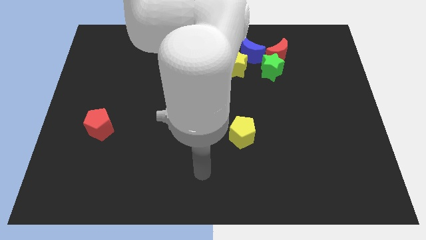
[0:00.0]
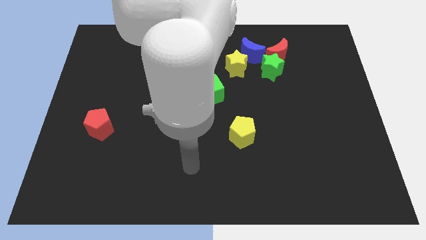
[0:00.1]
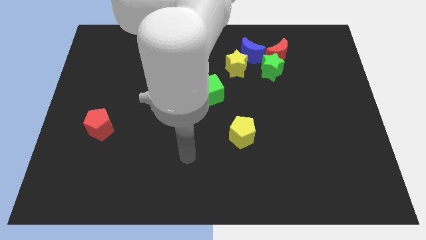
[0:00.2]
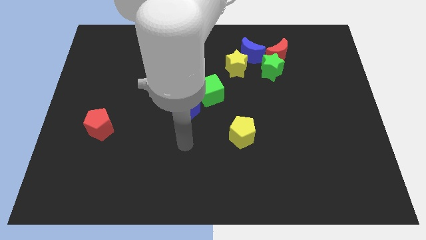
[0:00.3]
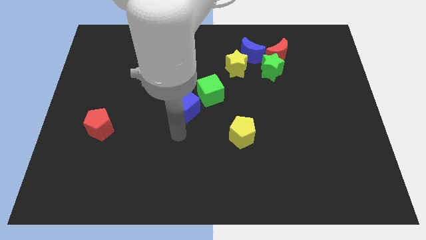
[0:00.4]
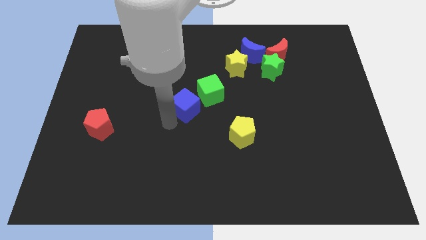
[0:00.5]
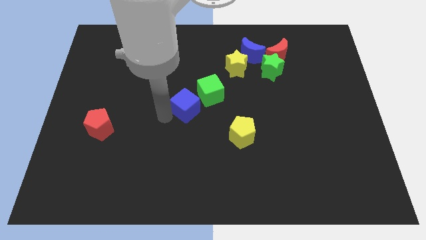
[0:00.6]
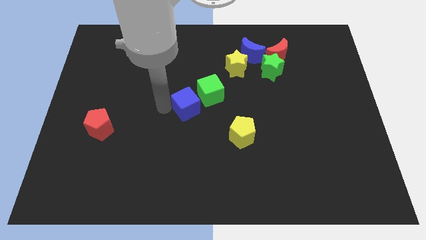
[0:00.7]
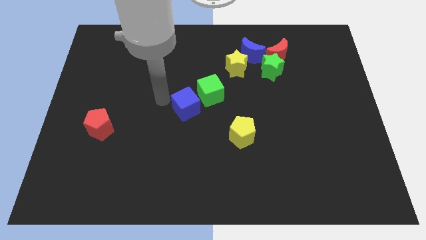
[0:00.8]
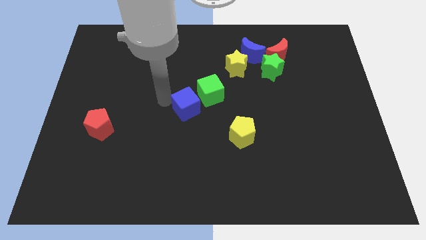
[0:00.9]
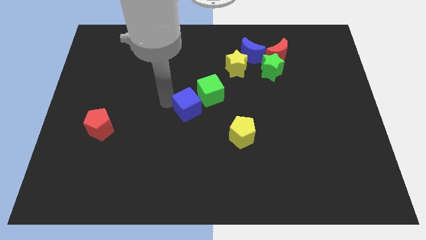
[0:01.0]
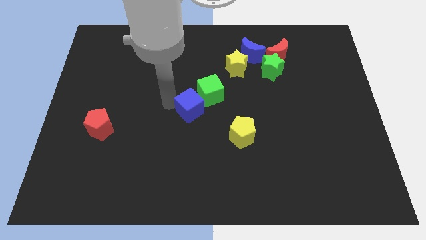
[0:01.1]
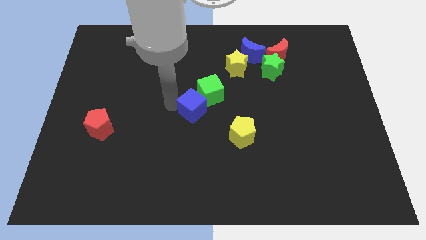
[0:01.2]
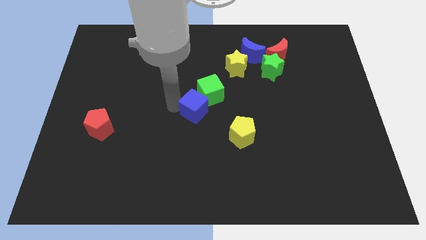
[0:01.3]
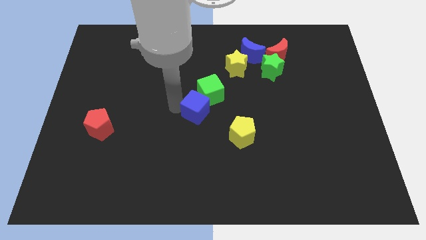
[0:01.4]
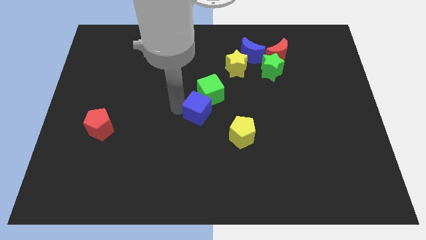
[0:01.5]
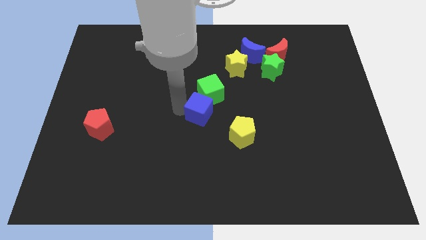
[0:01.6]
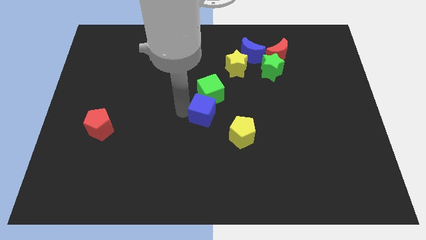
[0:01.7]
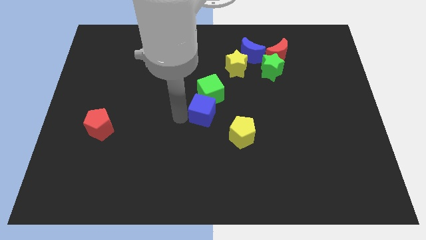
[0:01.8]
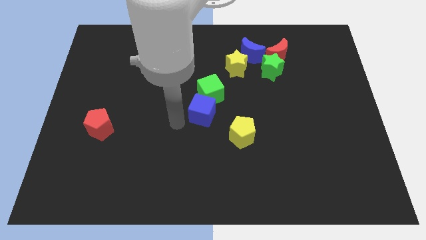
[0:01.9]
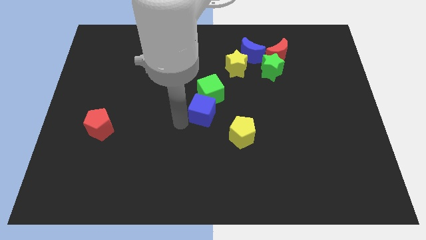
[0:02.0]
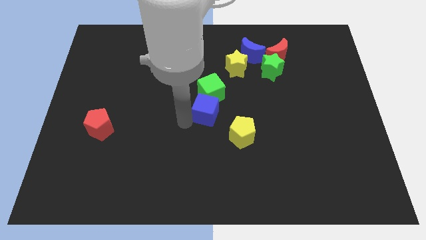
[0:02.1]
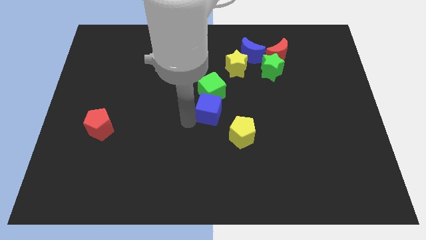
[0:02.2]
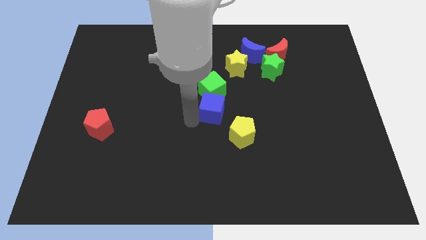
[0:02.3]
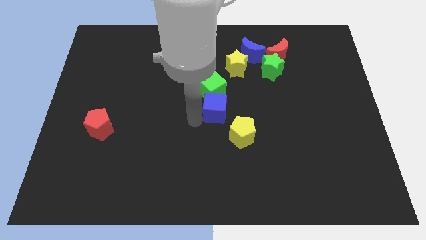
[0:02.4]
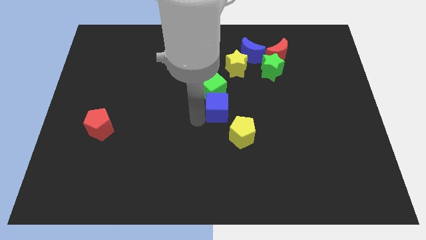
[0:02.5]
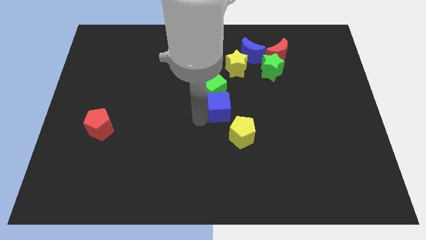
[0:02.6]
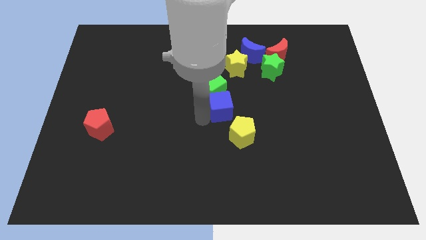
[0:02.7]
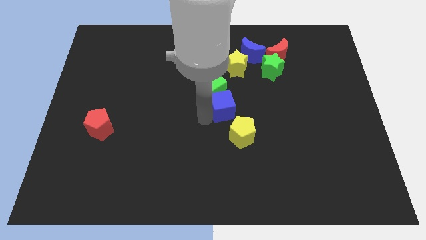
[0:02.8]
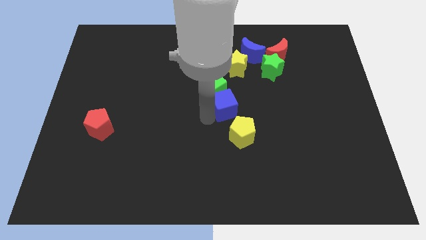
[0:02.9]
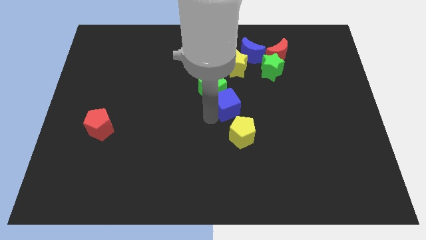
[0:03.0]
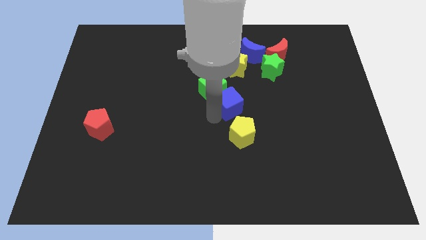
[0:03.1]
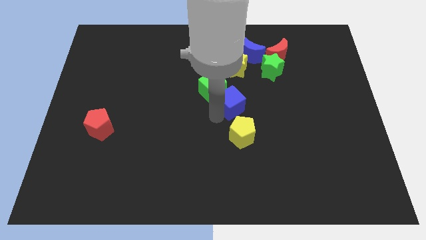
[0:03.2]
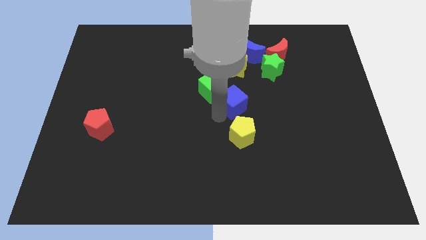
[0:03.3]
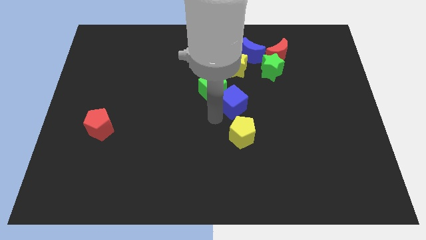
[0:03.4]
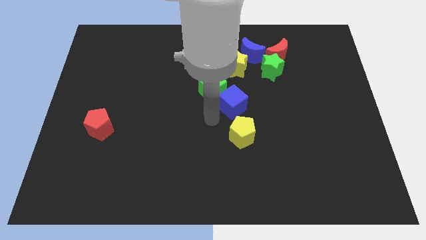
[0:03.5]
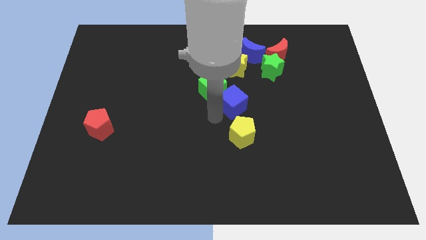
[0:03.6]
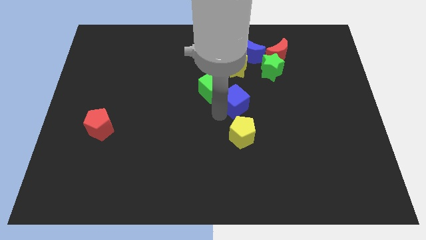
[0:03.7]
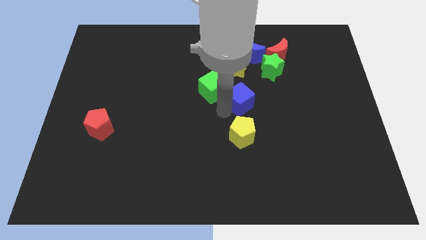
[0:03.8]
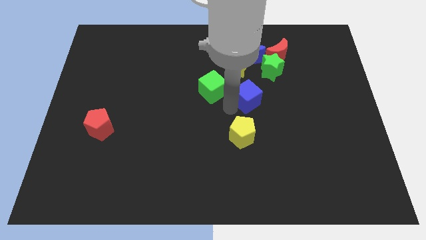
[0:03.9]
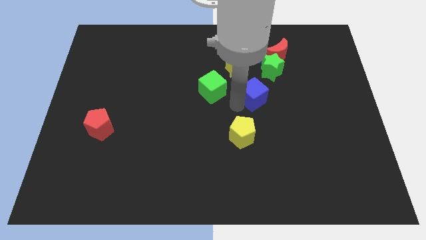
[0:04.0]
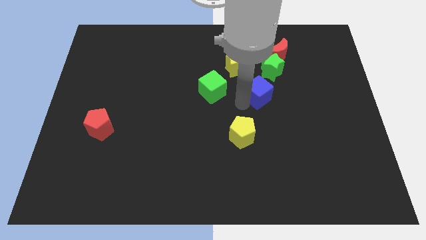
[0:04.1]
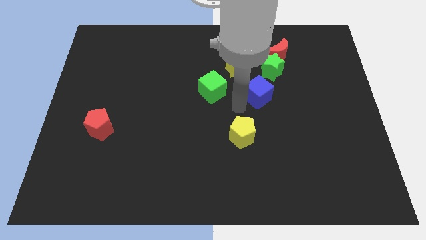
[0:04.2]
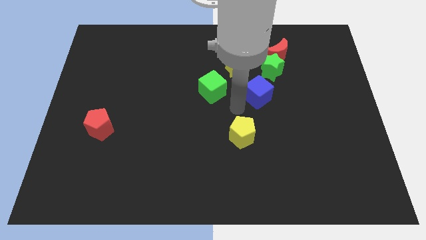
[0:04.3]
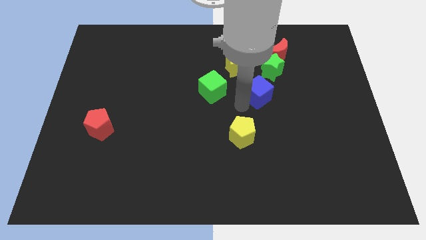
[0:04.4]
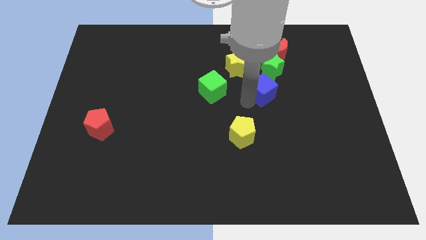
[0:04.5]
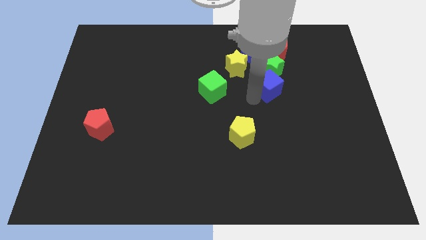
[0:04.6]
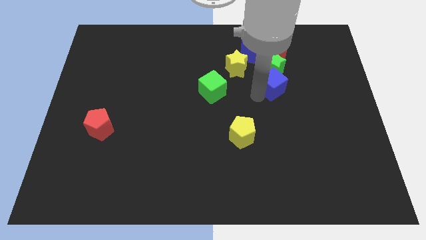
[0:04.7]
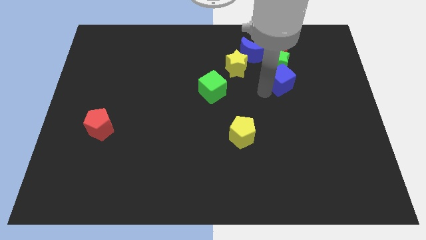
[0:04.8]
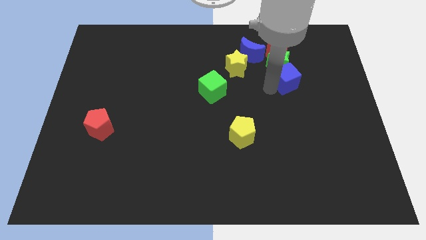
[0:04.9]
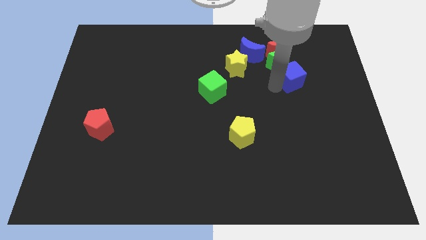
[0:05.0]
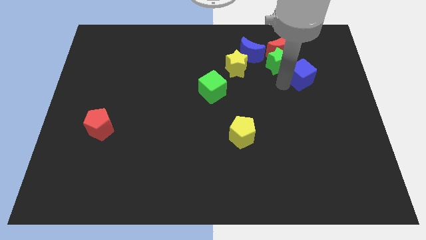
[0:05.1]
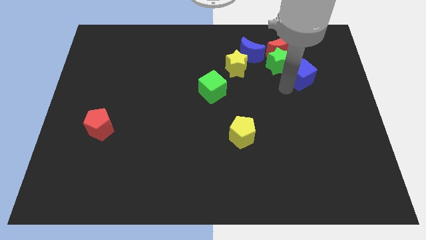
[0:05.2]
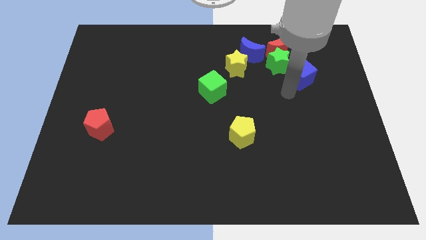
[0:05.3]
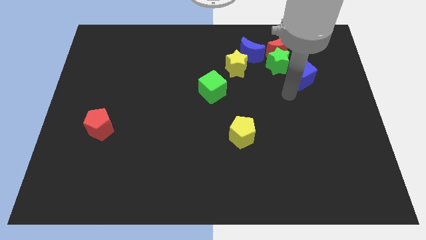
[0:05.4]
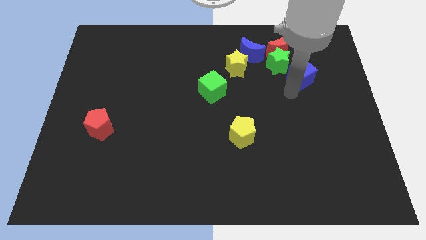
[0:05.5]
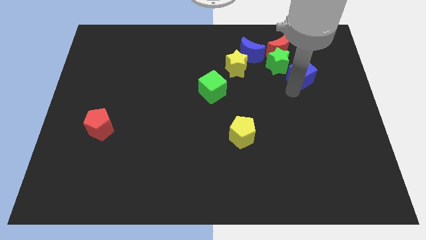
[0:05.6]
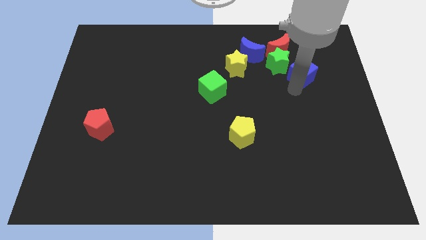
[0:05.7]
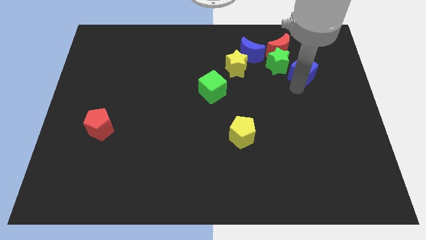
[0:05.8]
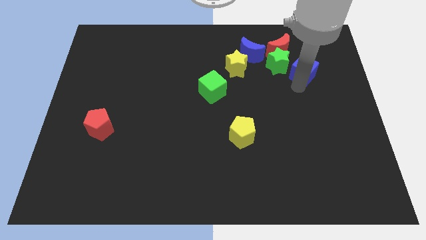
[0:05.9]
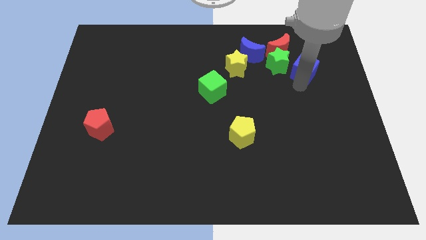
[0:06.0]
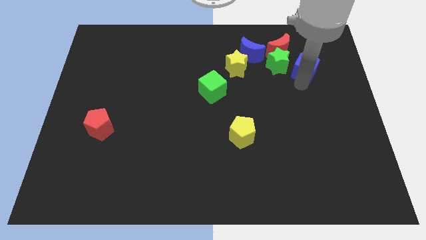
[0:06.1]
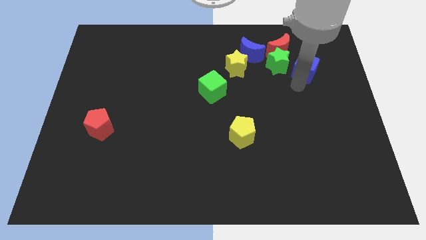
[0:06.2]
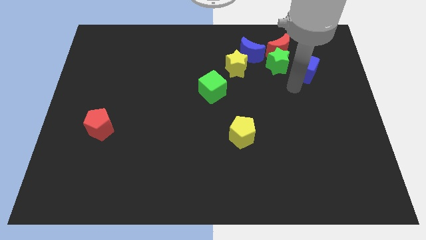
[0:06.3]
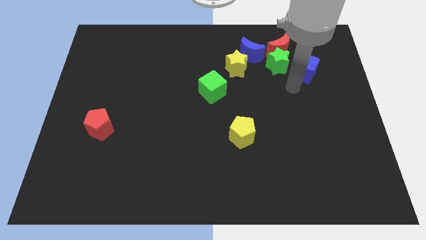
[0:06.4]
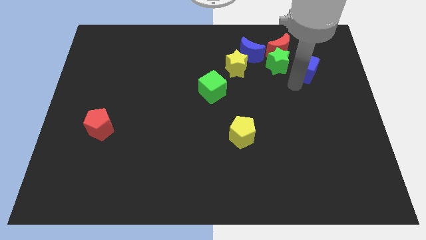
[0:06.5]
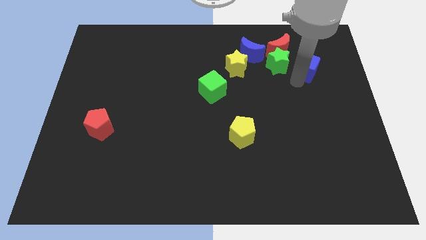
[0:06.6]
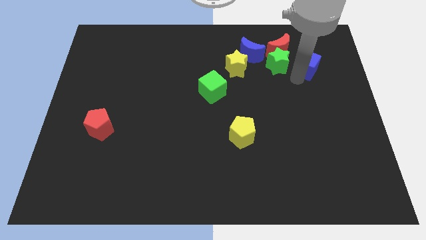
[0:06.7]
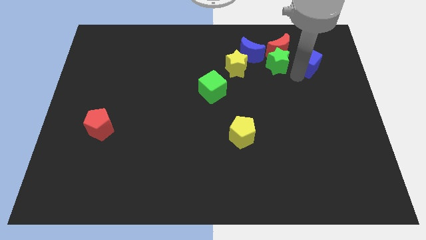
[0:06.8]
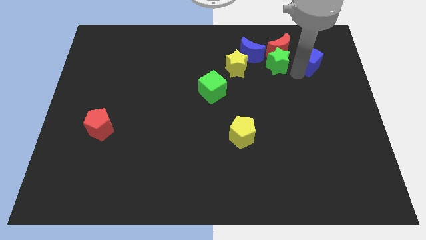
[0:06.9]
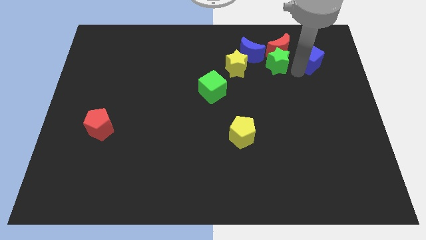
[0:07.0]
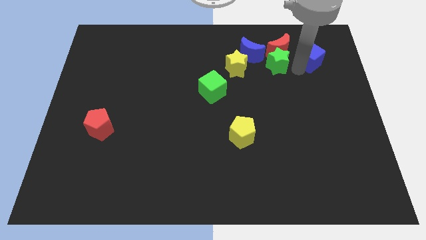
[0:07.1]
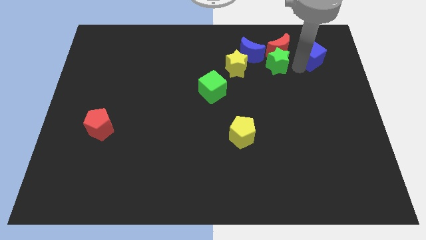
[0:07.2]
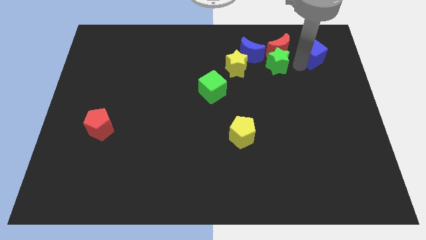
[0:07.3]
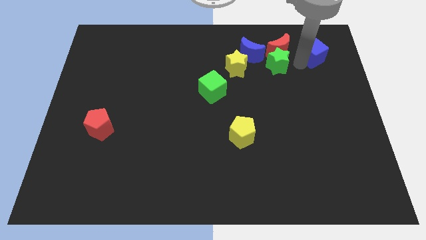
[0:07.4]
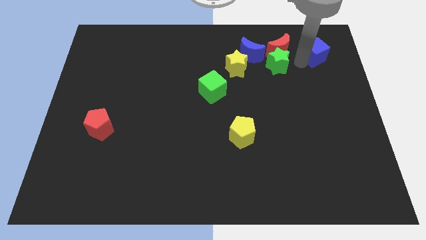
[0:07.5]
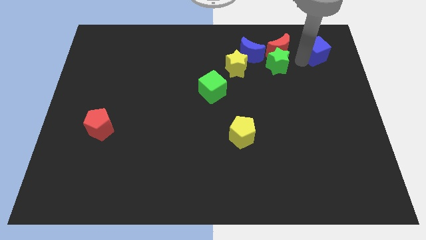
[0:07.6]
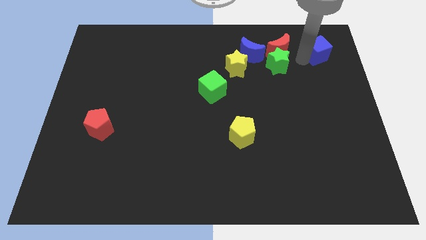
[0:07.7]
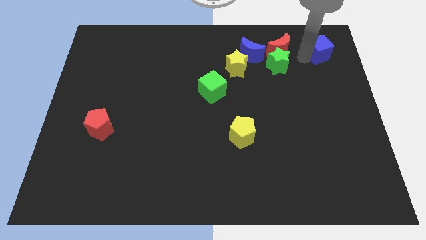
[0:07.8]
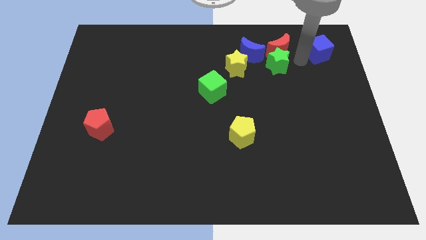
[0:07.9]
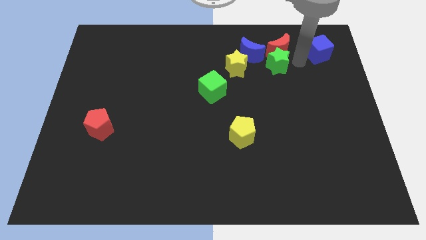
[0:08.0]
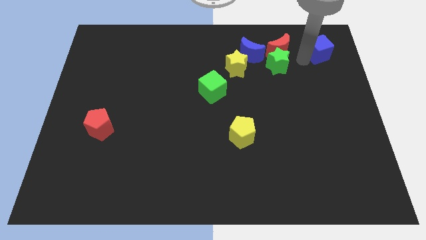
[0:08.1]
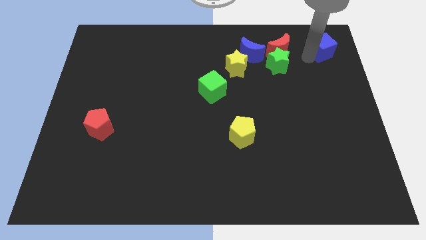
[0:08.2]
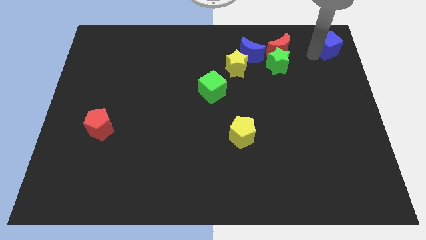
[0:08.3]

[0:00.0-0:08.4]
push the blue cube to the top right corner
